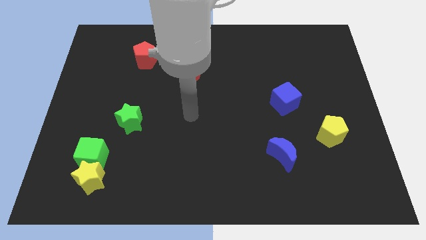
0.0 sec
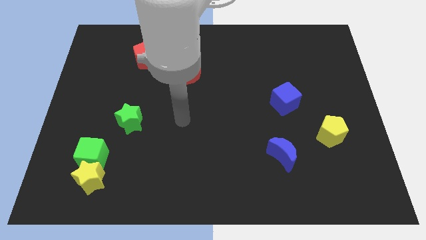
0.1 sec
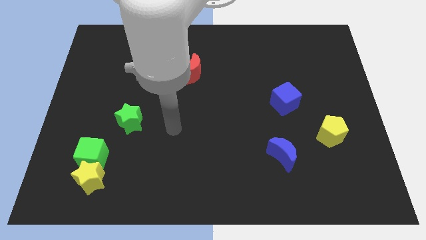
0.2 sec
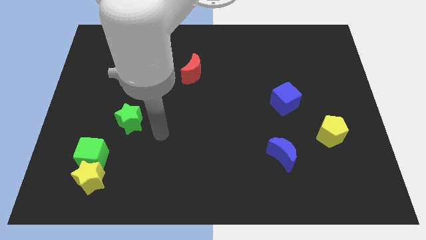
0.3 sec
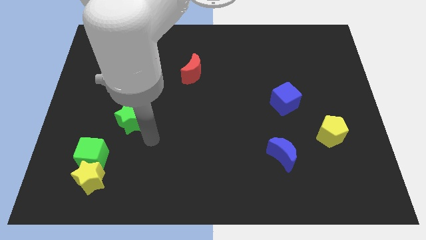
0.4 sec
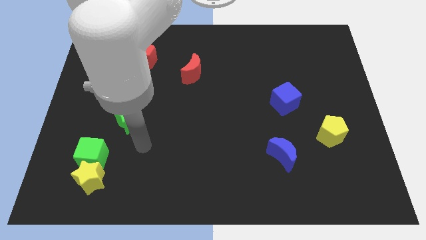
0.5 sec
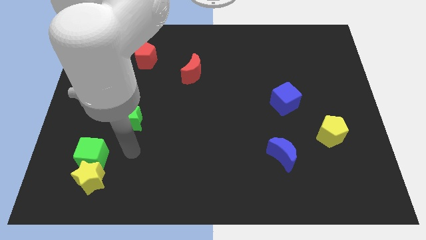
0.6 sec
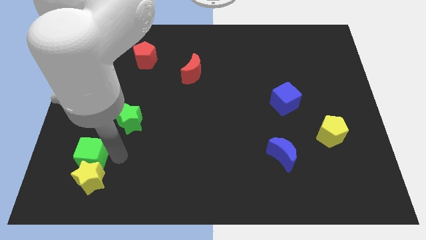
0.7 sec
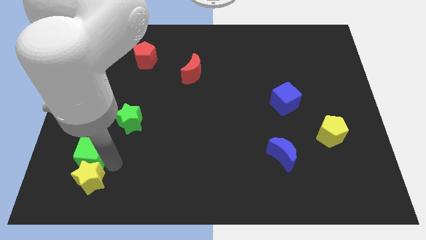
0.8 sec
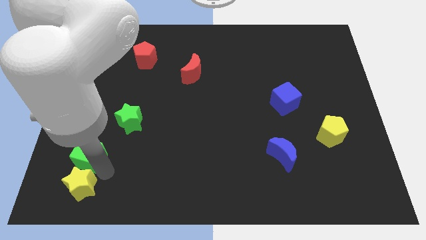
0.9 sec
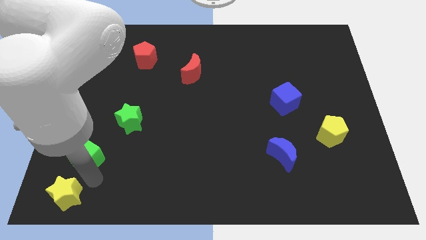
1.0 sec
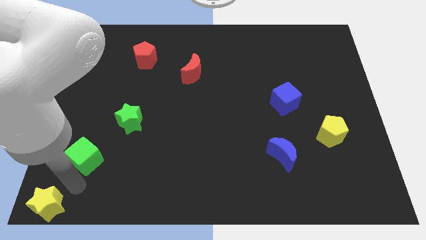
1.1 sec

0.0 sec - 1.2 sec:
move the green cube away from the yellow star

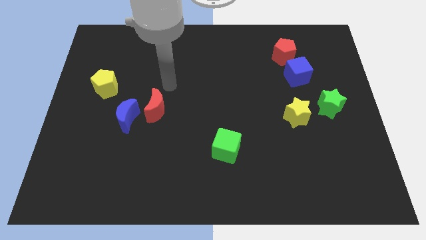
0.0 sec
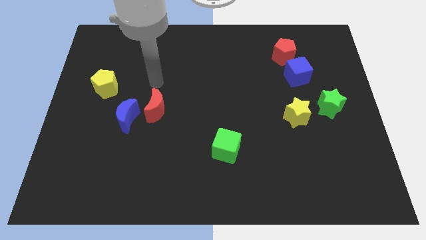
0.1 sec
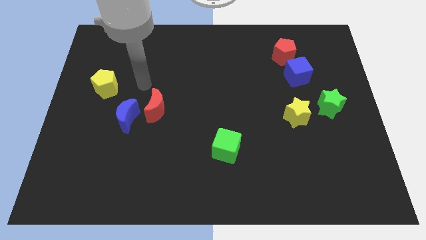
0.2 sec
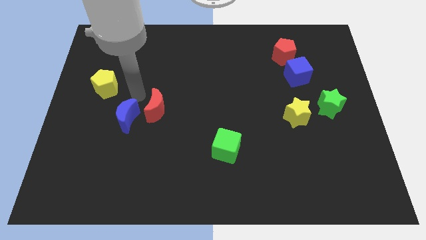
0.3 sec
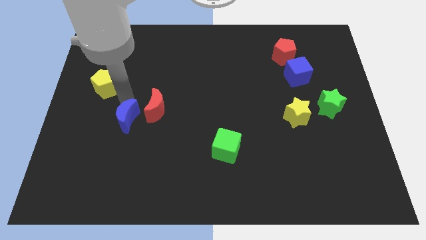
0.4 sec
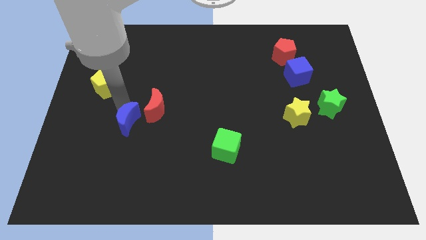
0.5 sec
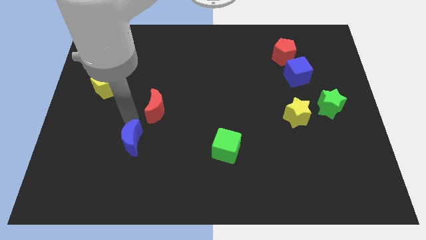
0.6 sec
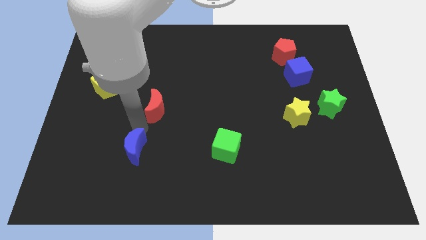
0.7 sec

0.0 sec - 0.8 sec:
move the red moon away from the blue moon

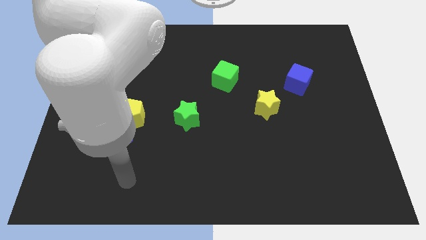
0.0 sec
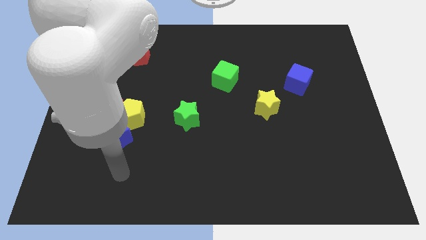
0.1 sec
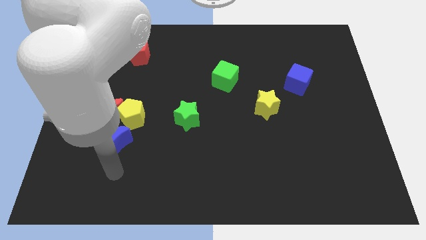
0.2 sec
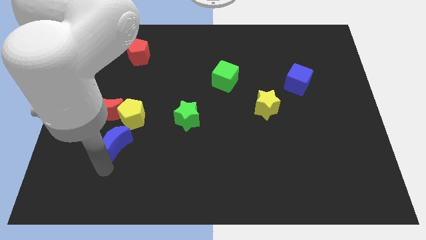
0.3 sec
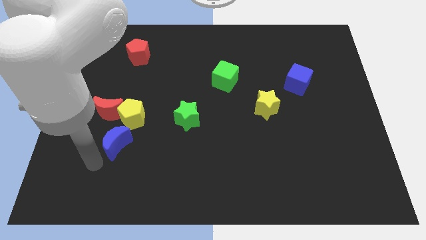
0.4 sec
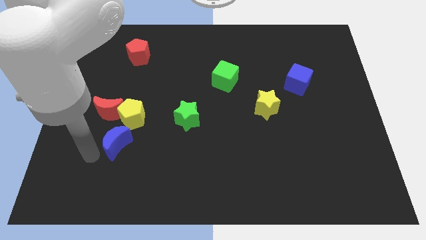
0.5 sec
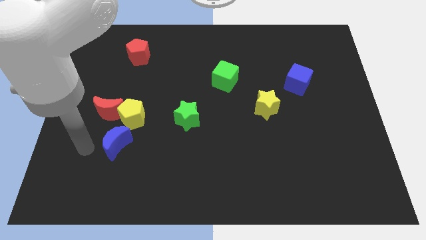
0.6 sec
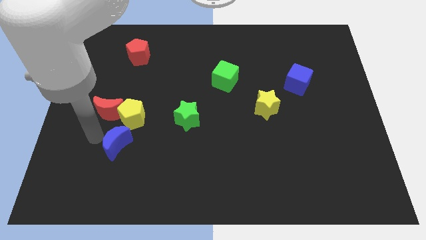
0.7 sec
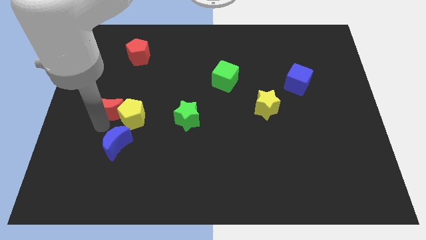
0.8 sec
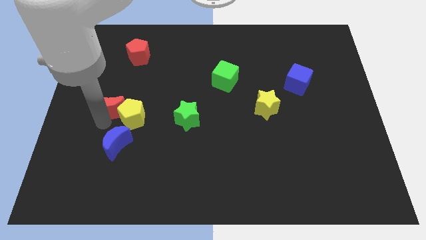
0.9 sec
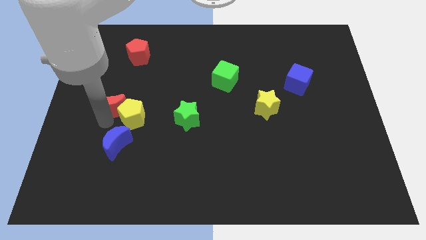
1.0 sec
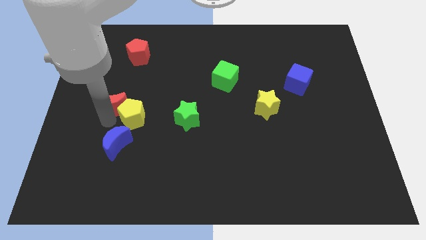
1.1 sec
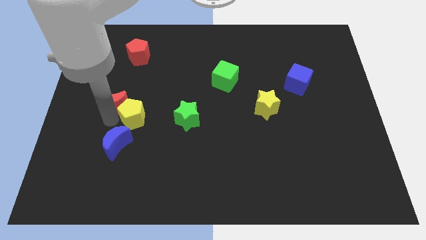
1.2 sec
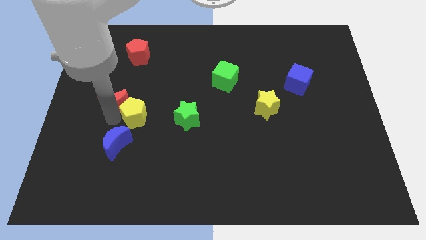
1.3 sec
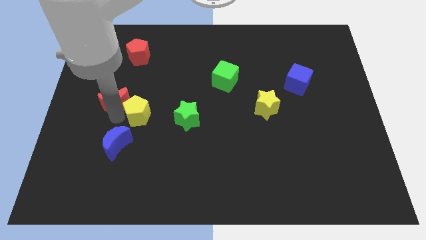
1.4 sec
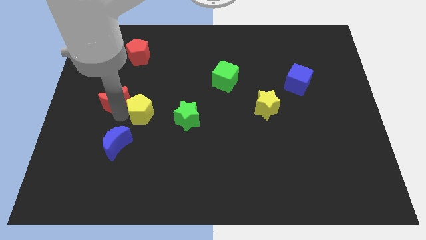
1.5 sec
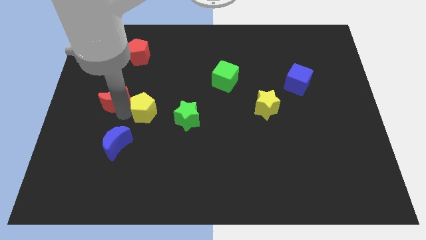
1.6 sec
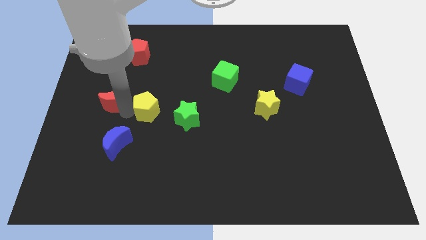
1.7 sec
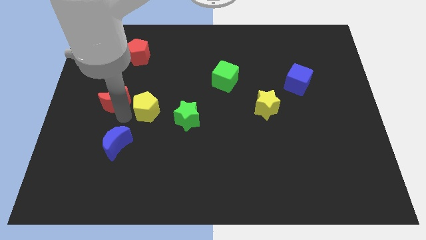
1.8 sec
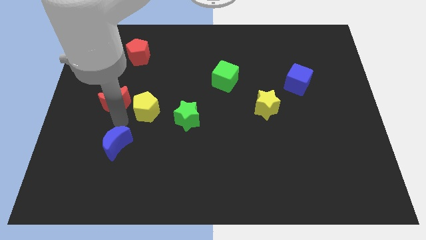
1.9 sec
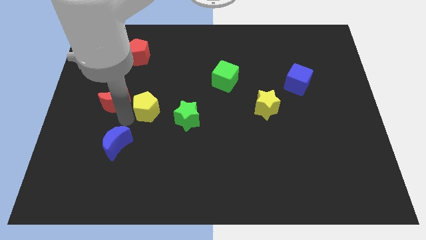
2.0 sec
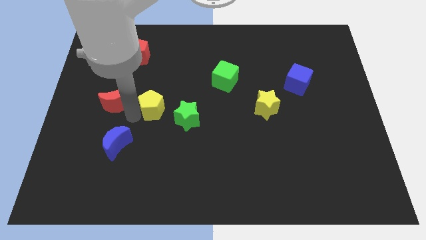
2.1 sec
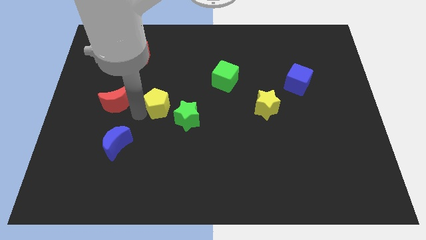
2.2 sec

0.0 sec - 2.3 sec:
move the yellow pentagon away from the red moon and blue moon

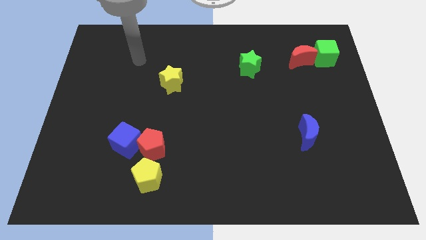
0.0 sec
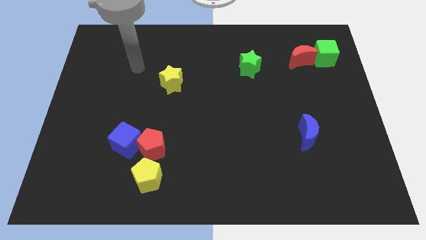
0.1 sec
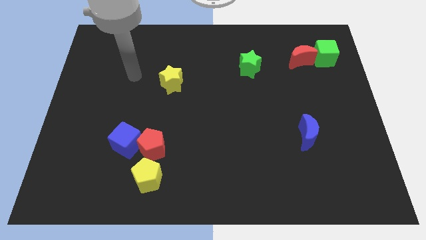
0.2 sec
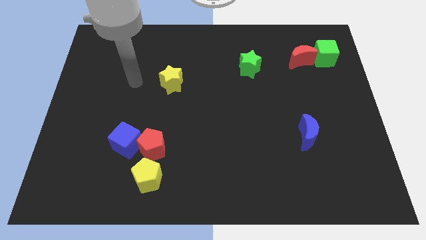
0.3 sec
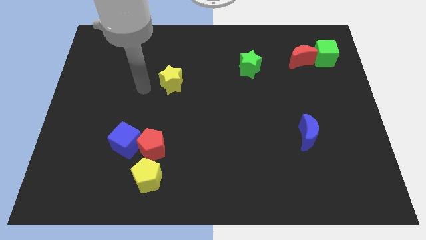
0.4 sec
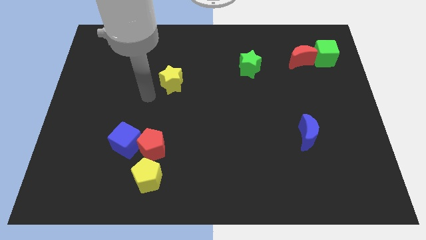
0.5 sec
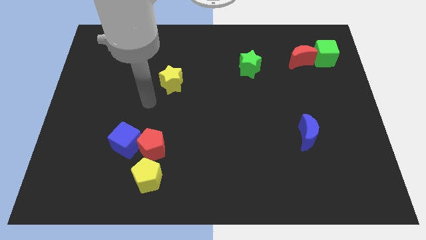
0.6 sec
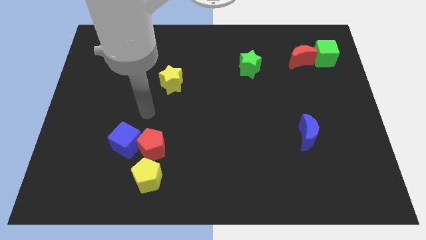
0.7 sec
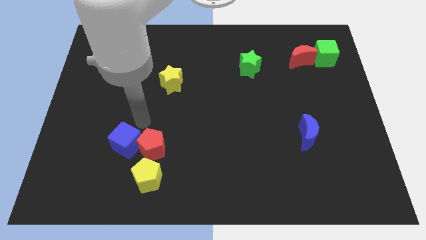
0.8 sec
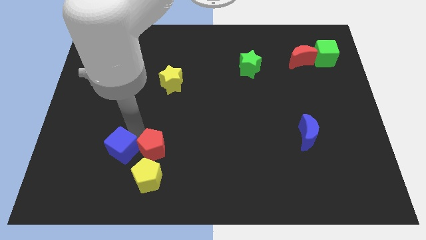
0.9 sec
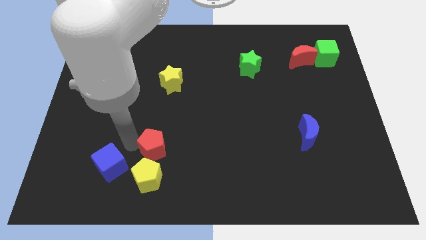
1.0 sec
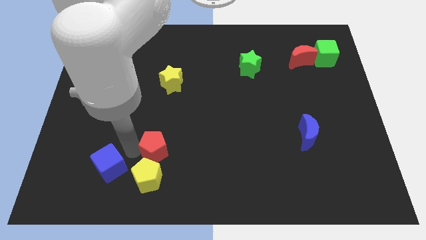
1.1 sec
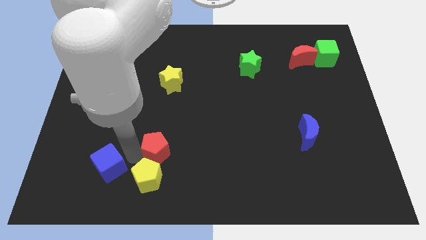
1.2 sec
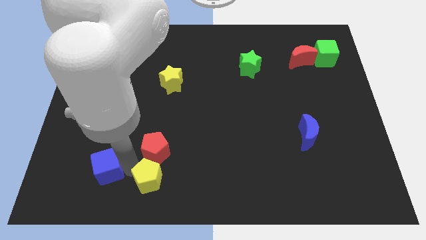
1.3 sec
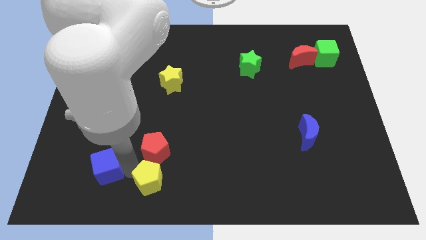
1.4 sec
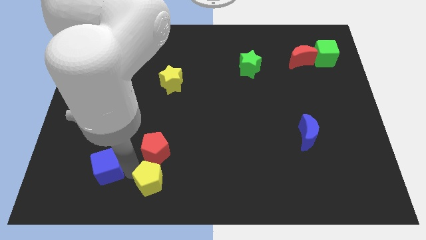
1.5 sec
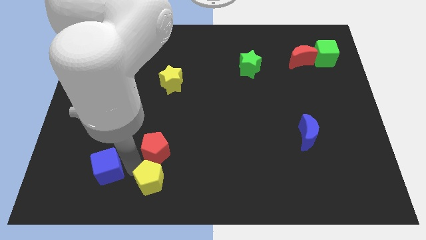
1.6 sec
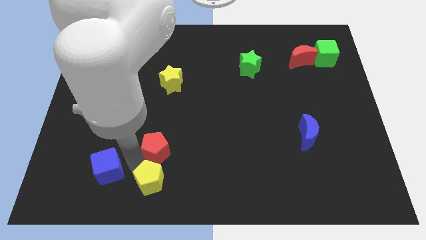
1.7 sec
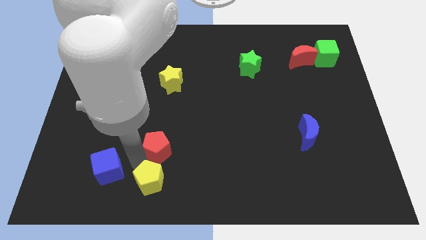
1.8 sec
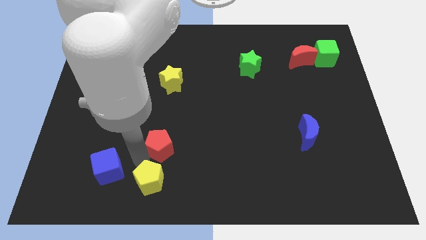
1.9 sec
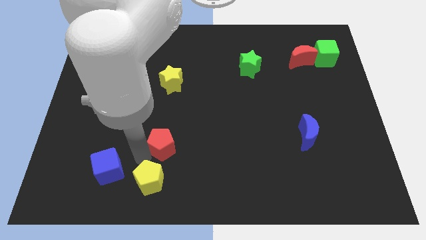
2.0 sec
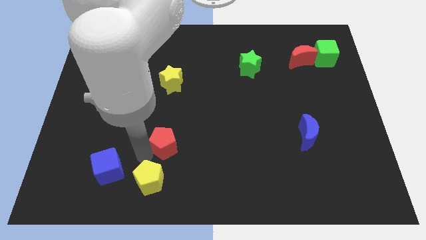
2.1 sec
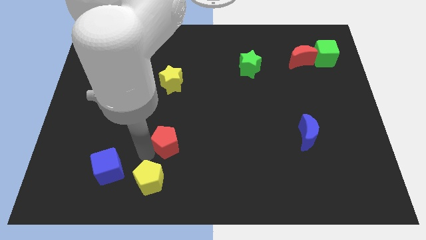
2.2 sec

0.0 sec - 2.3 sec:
separate the red pentagon from the blue cube and yellow pentagon

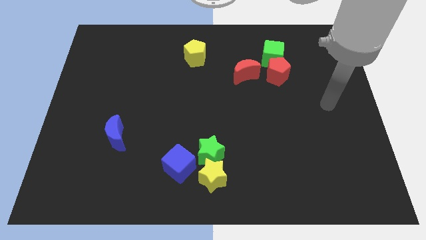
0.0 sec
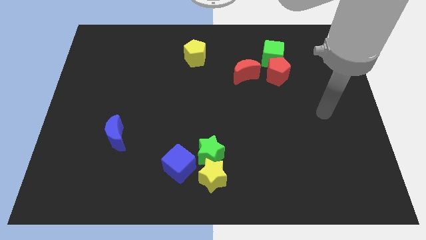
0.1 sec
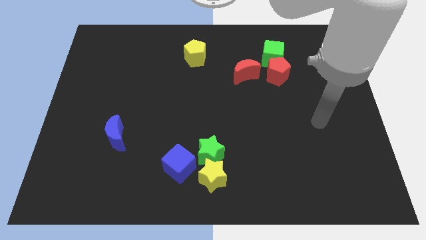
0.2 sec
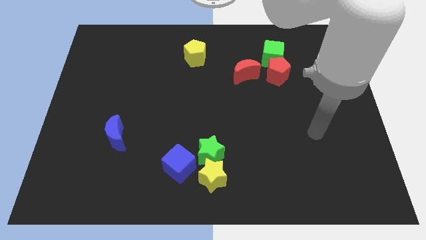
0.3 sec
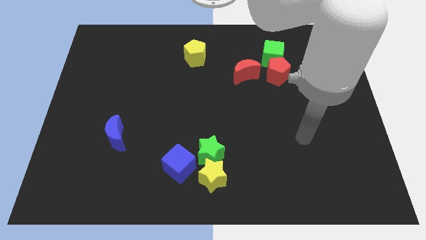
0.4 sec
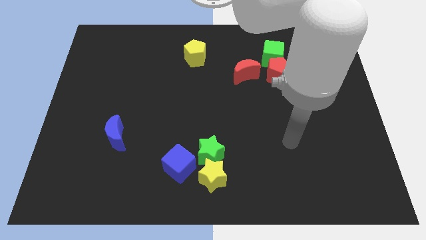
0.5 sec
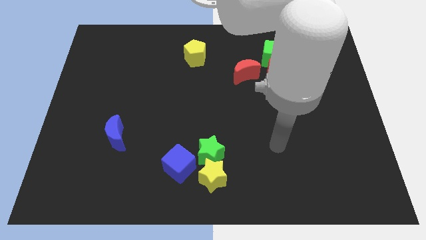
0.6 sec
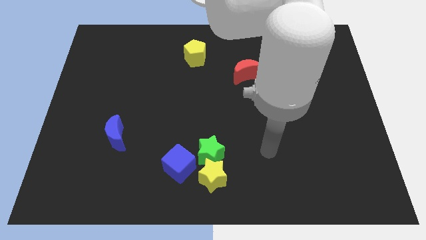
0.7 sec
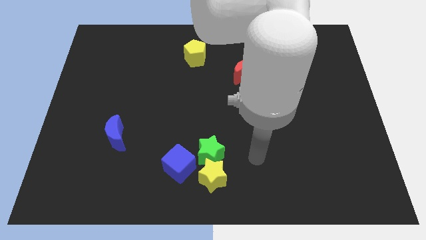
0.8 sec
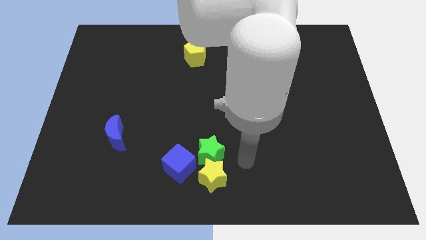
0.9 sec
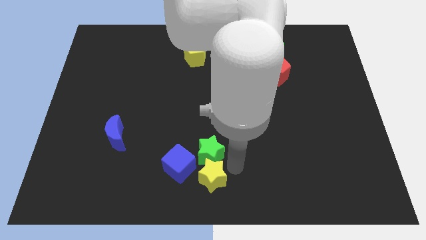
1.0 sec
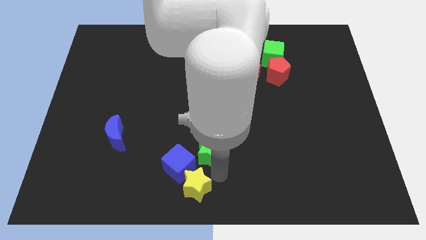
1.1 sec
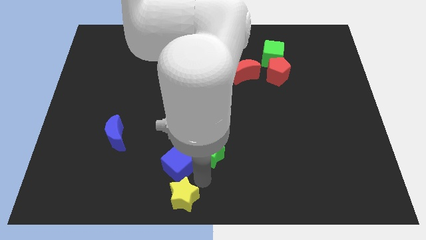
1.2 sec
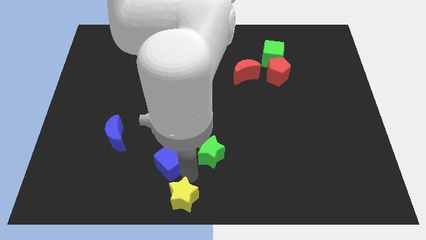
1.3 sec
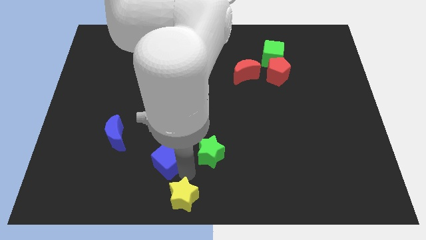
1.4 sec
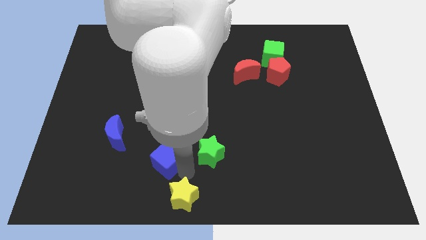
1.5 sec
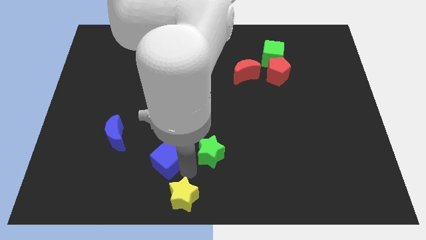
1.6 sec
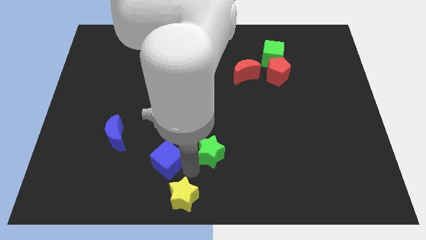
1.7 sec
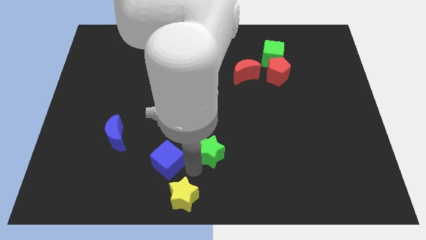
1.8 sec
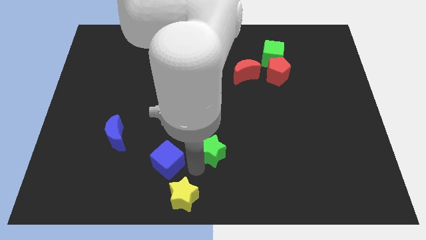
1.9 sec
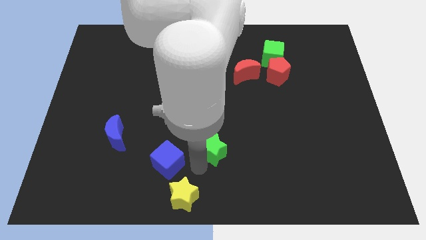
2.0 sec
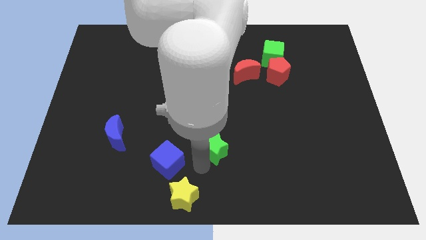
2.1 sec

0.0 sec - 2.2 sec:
pull the green star apart from the yellow star and blue cube

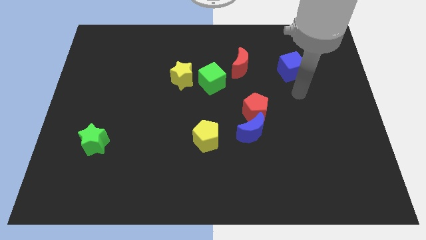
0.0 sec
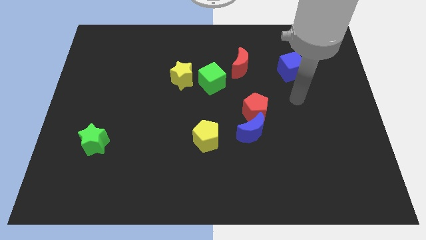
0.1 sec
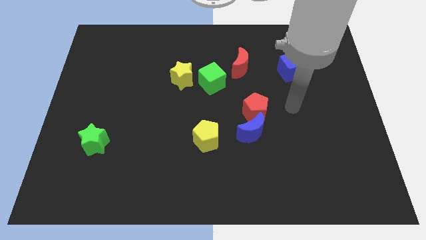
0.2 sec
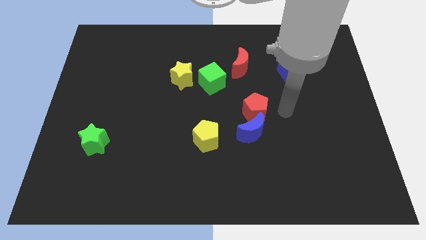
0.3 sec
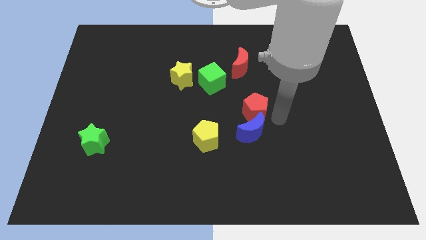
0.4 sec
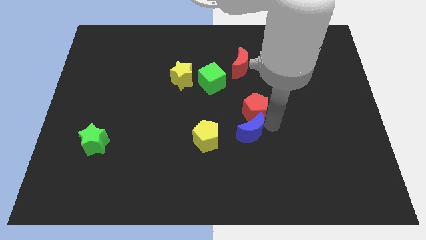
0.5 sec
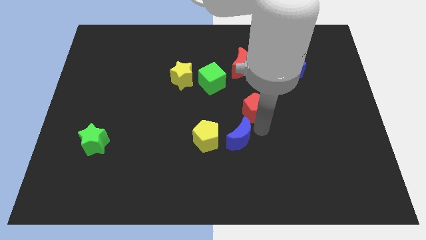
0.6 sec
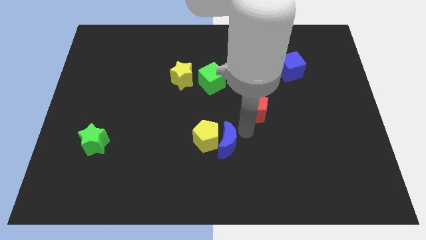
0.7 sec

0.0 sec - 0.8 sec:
pull the red pentagon apart from the blue moon
